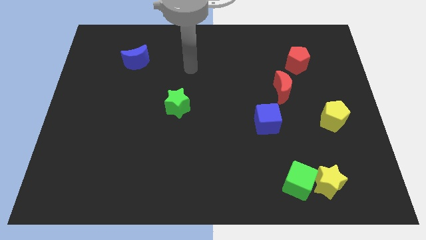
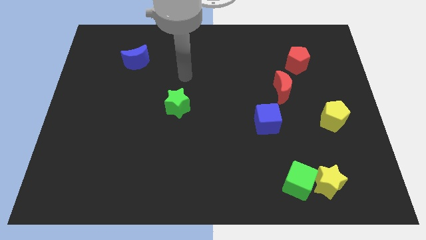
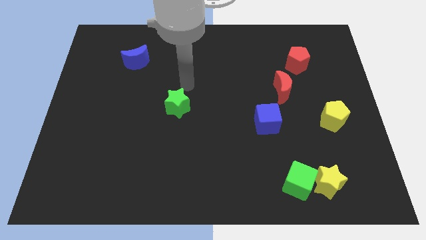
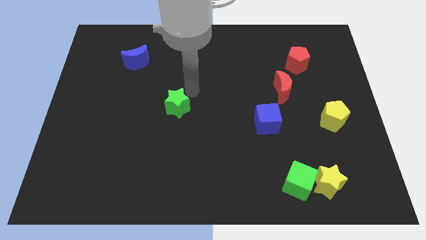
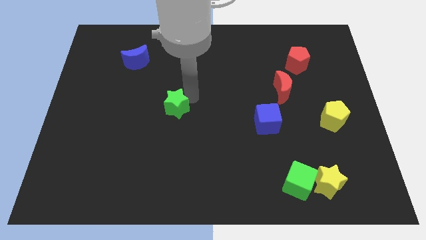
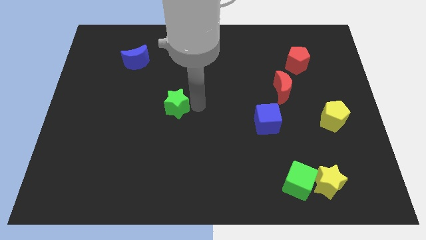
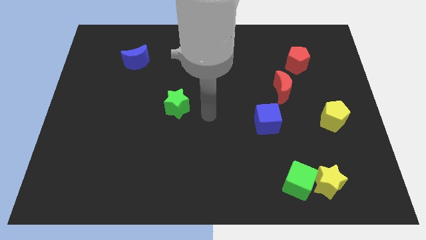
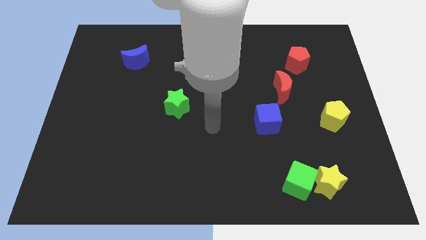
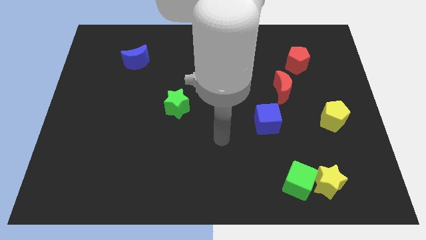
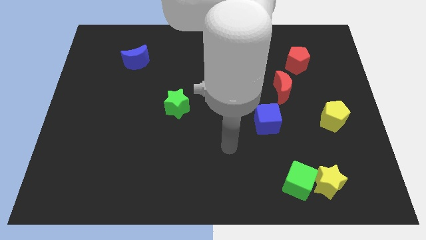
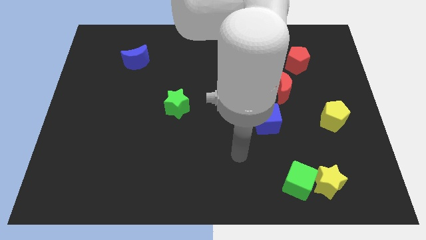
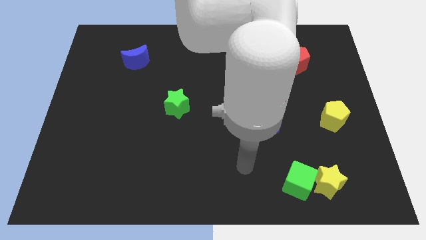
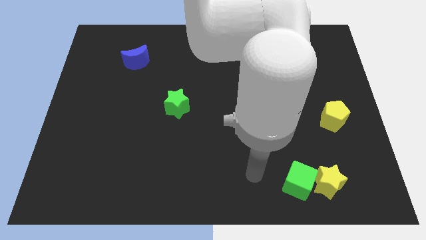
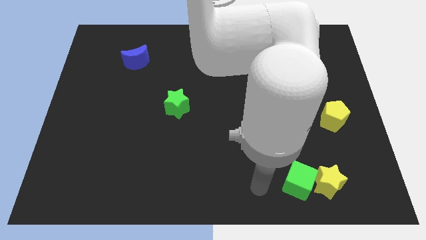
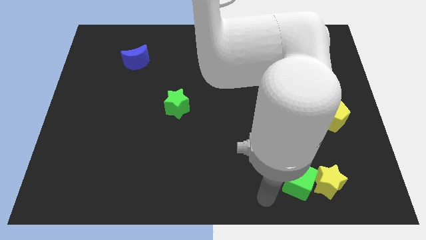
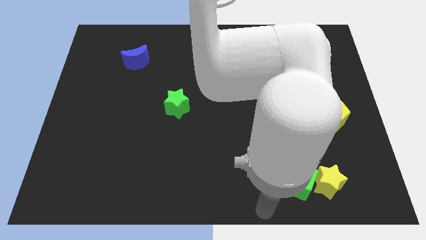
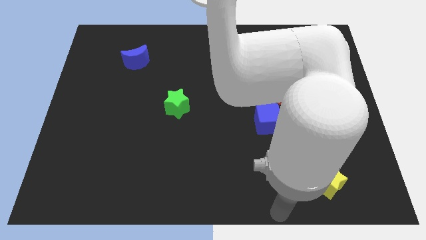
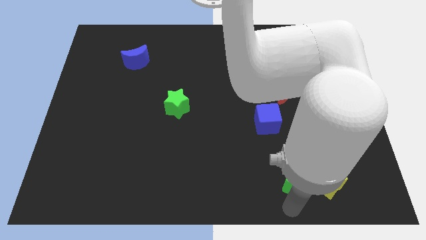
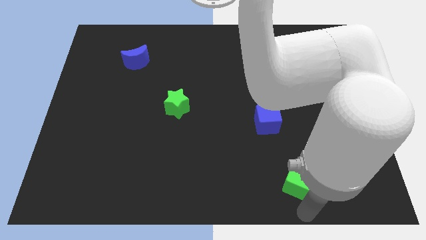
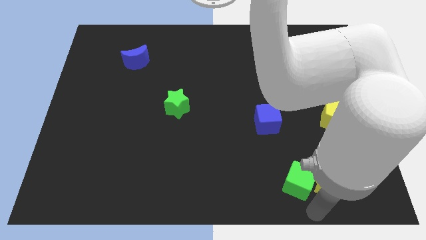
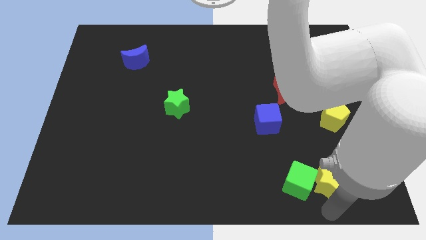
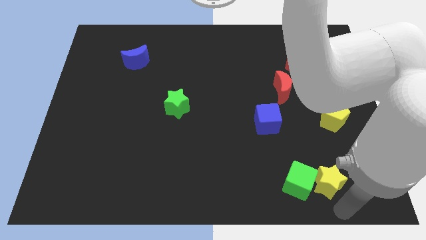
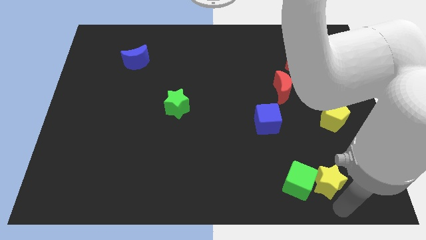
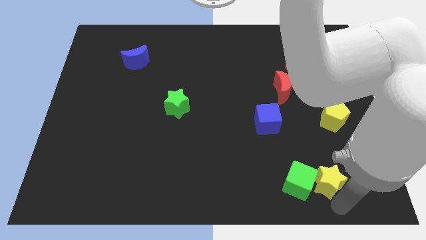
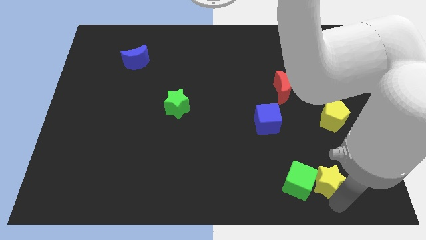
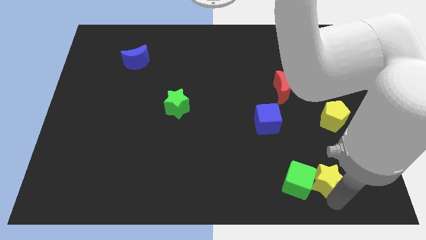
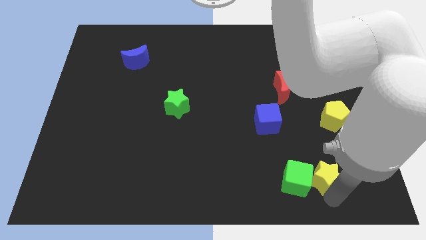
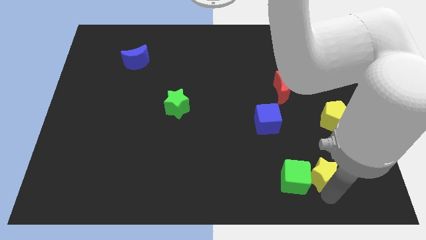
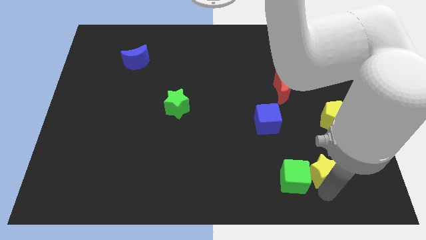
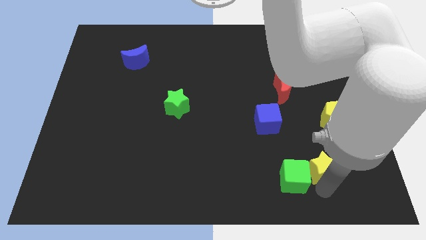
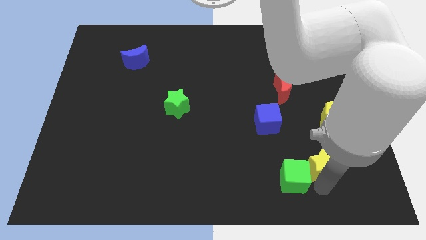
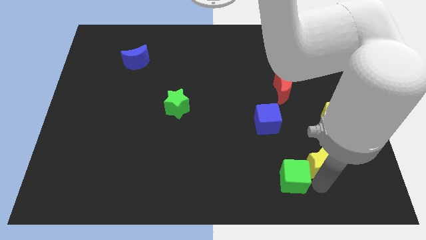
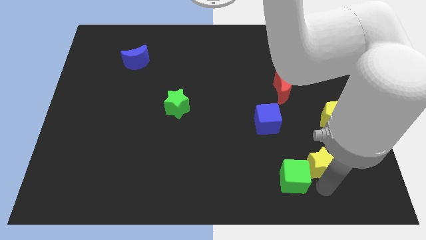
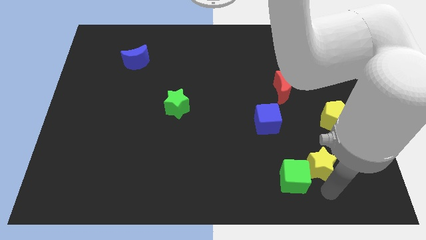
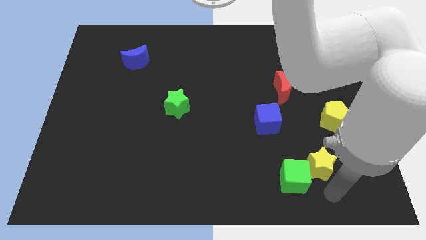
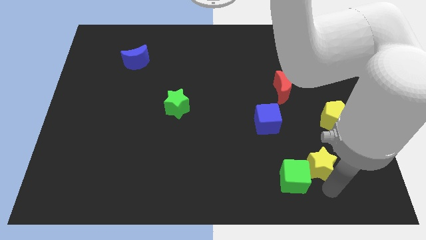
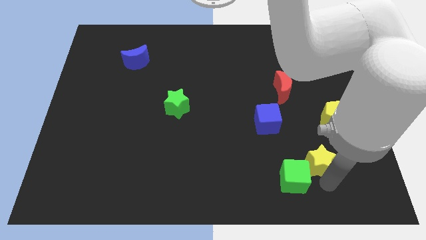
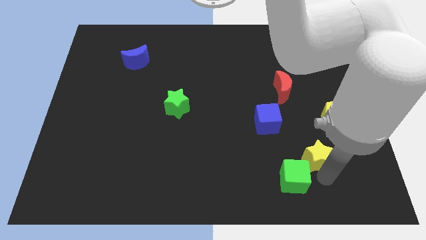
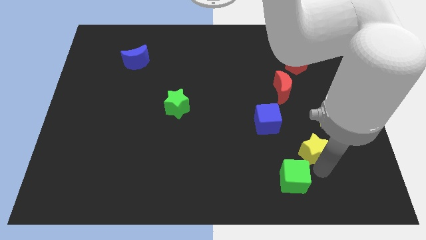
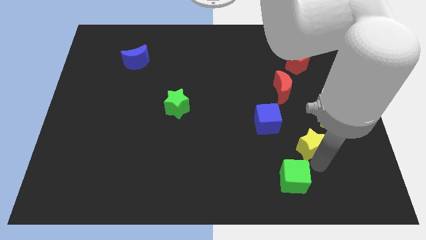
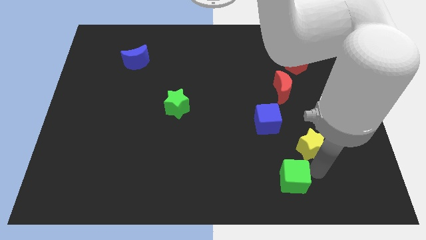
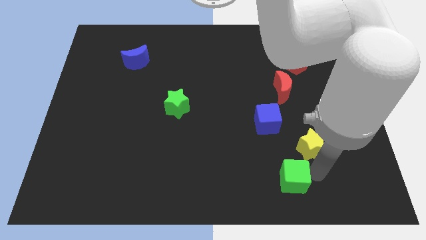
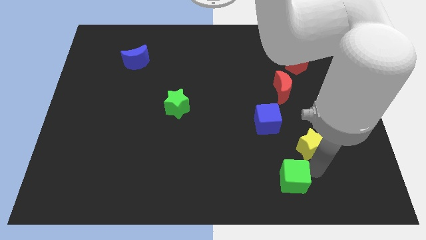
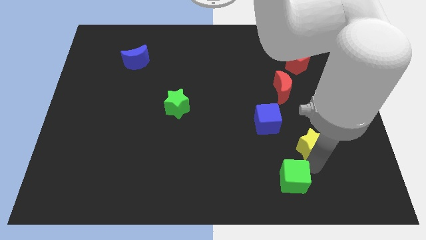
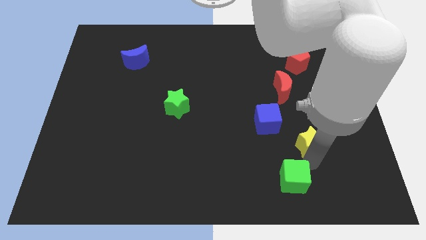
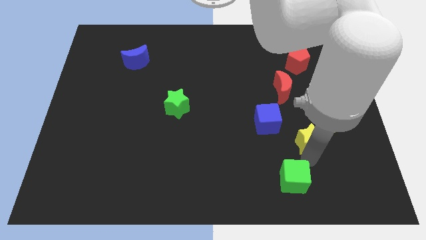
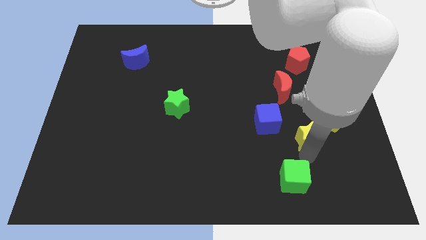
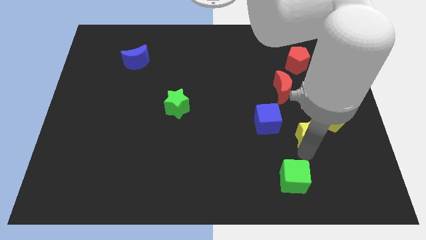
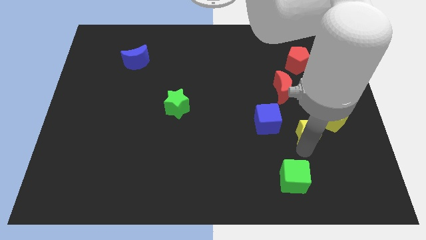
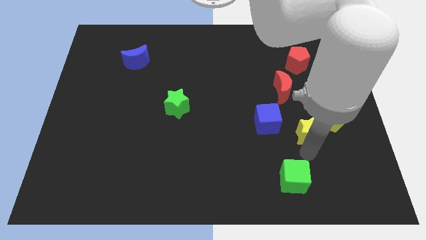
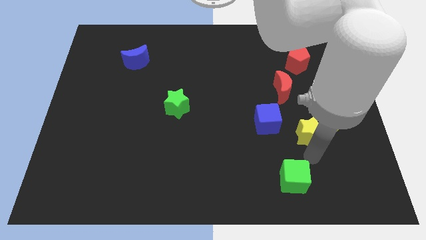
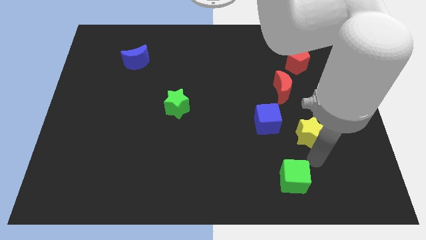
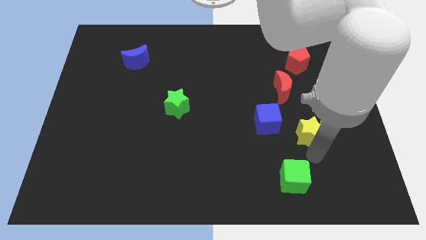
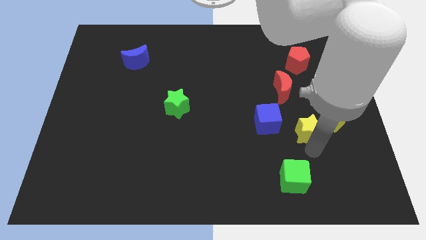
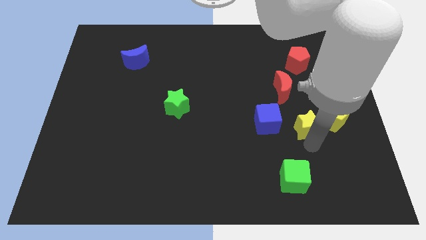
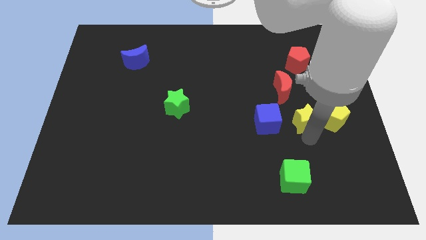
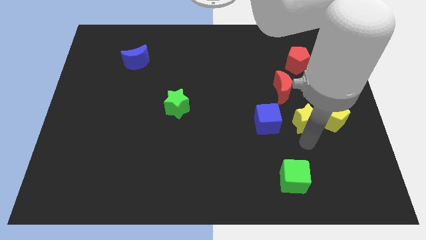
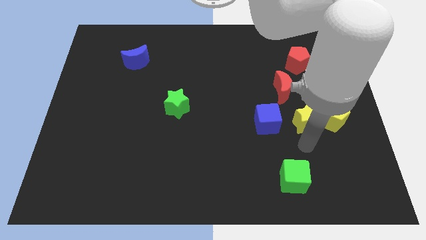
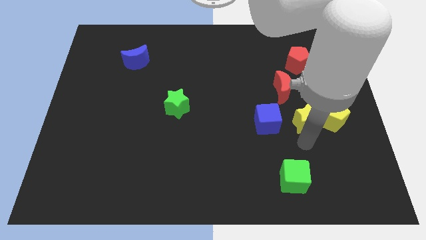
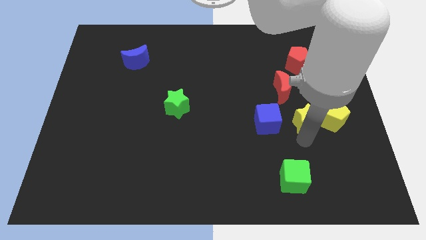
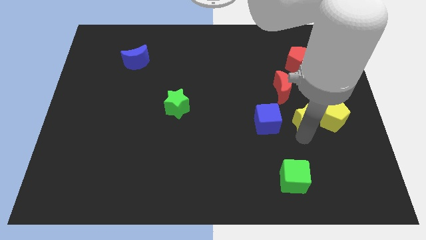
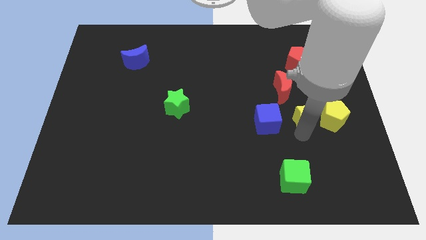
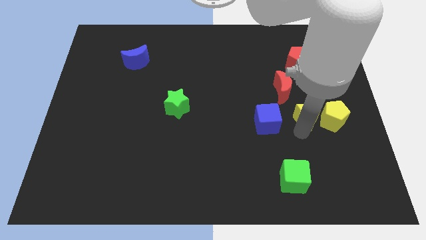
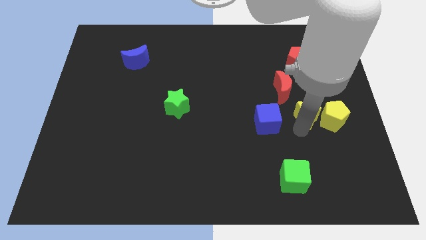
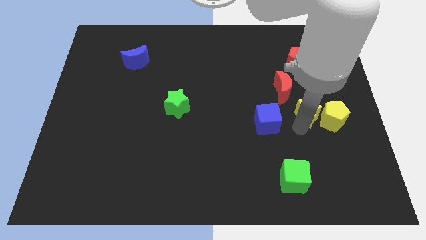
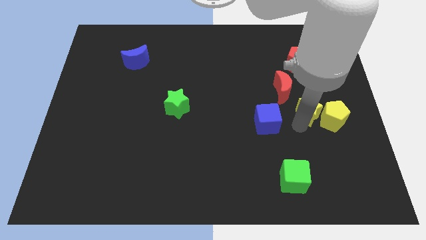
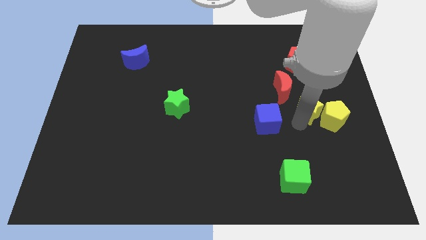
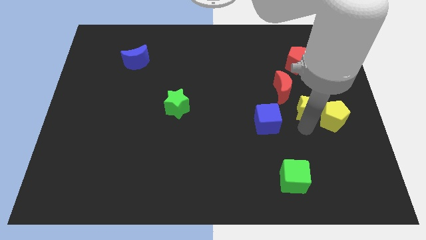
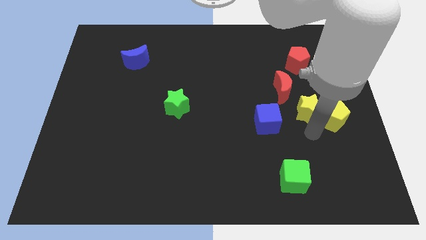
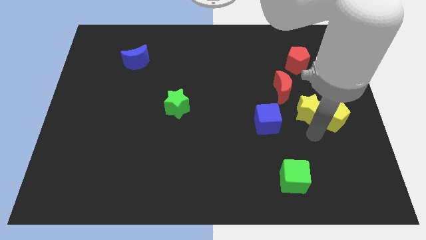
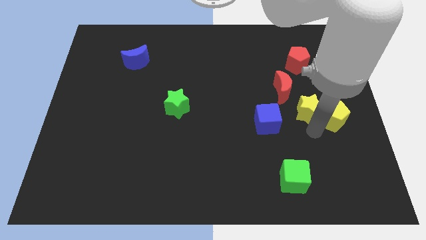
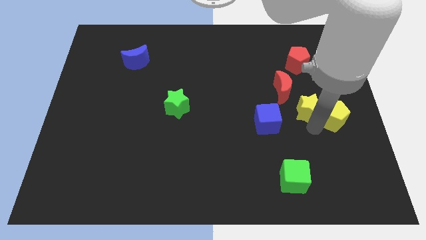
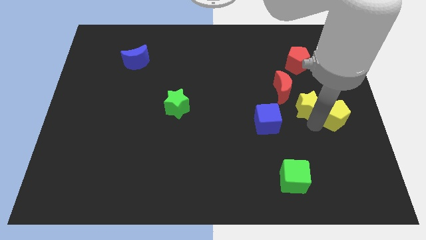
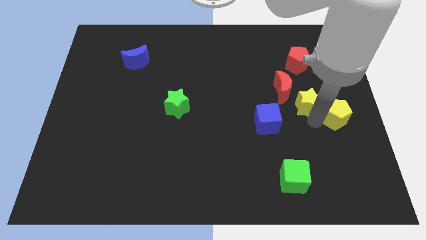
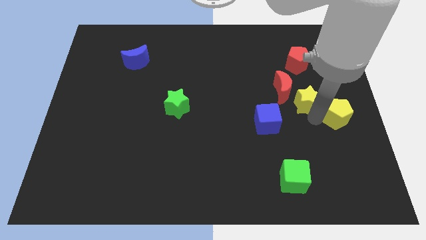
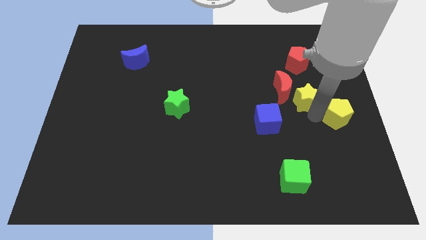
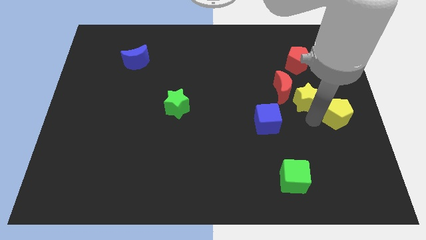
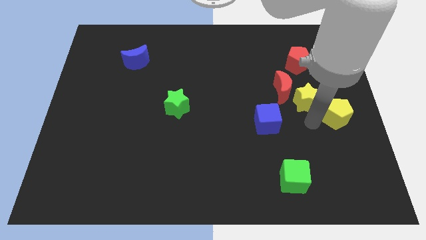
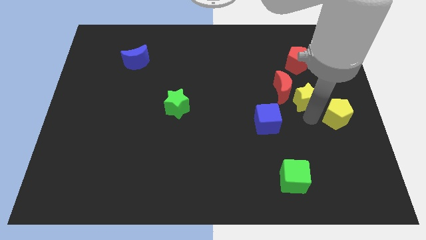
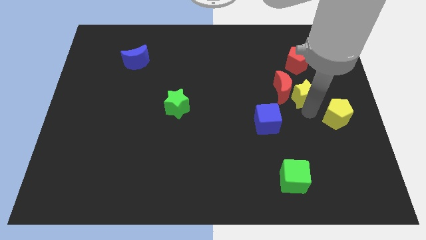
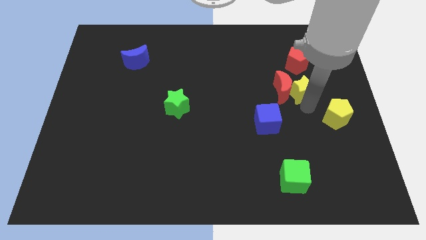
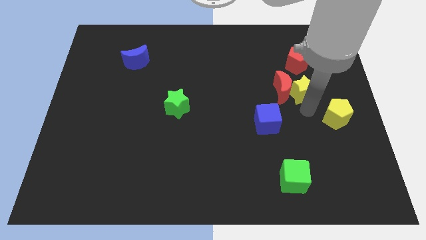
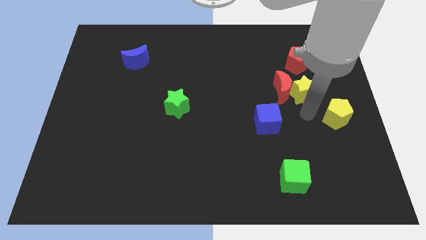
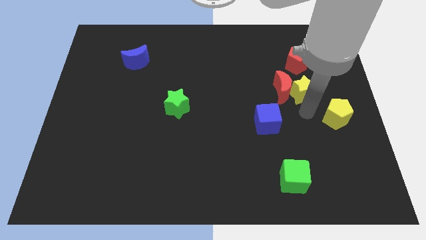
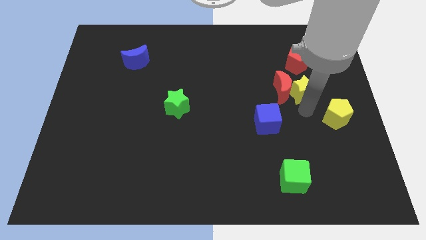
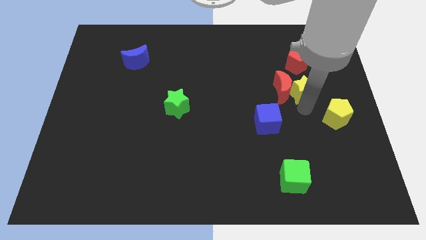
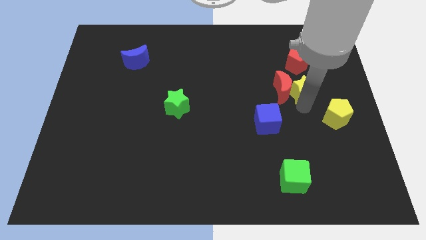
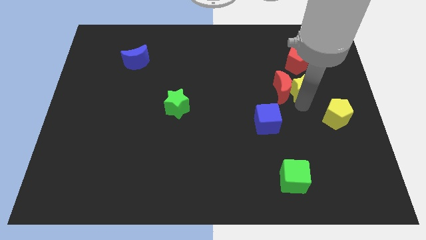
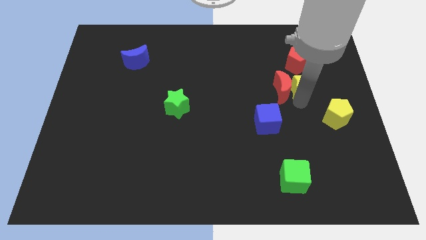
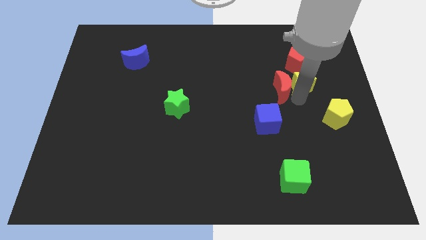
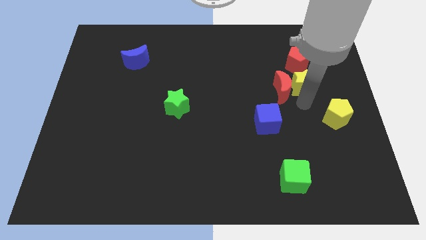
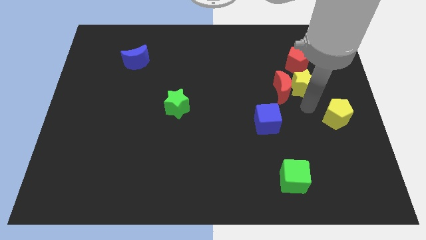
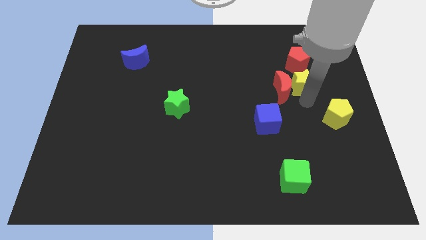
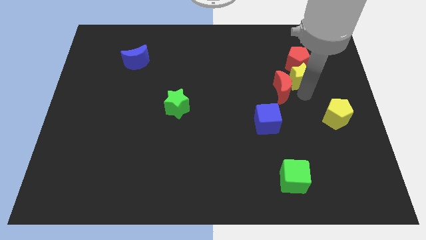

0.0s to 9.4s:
push the yellow star close to the red pentagon
